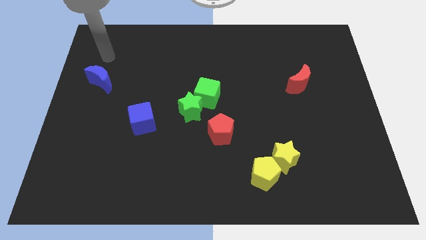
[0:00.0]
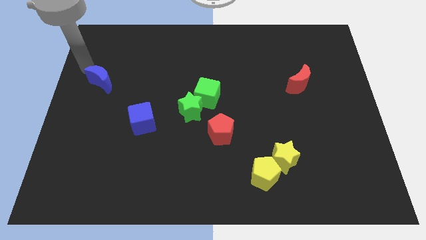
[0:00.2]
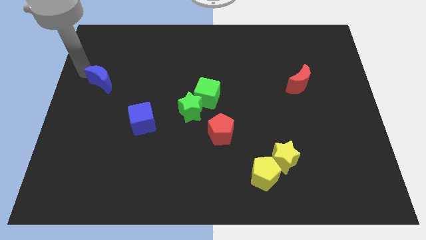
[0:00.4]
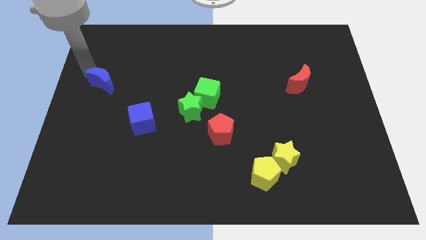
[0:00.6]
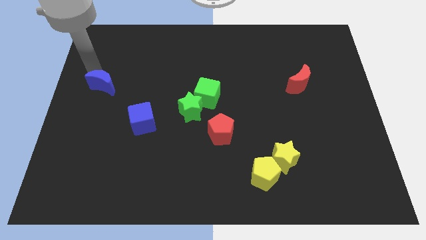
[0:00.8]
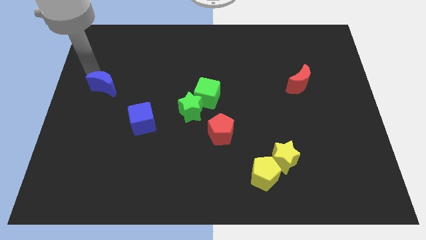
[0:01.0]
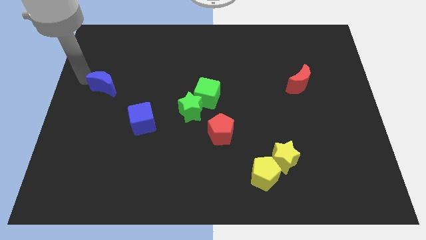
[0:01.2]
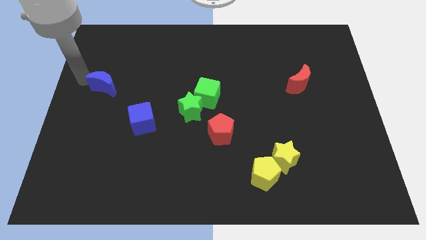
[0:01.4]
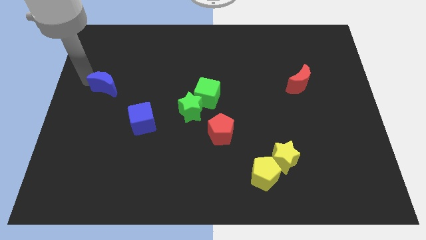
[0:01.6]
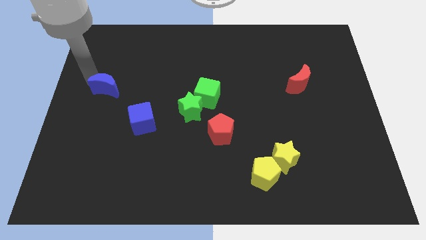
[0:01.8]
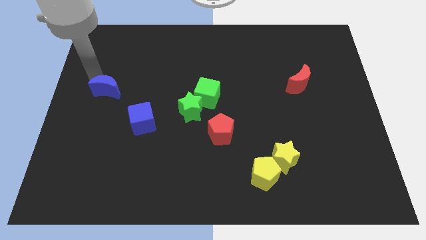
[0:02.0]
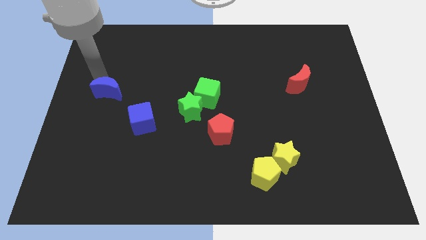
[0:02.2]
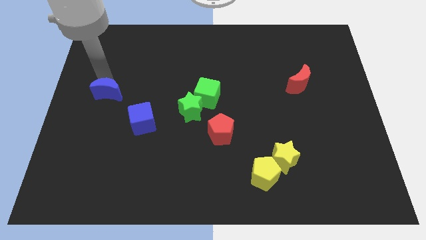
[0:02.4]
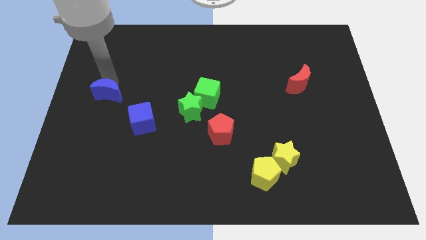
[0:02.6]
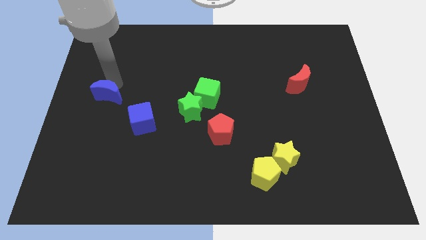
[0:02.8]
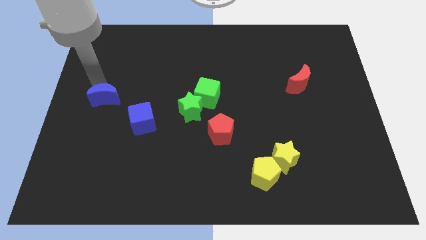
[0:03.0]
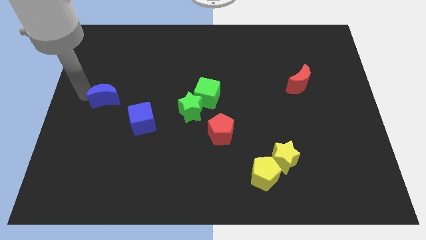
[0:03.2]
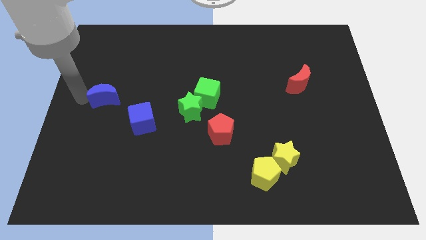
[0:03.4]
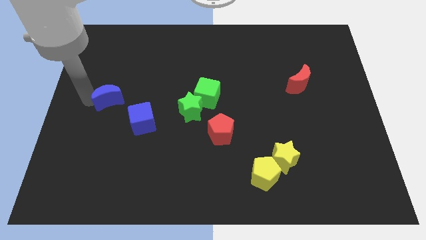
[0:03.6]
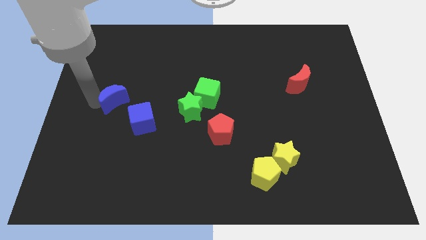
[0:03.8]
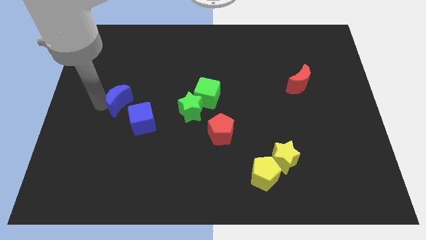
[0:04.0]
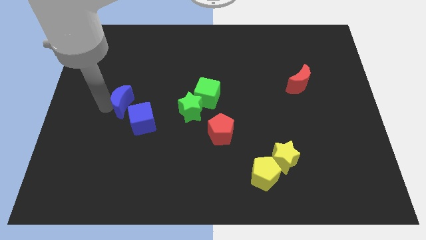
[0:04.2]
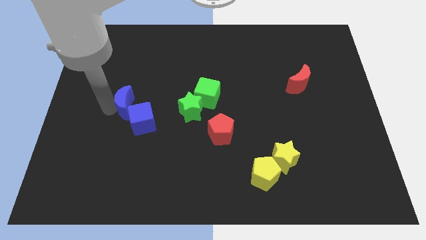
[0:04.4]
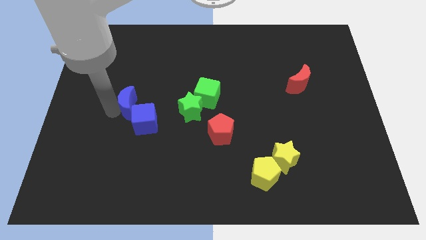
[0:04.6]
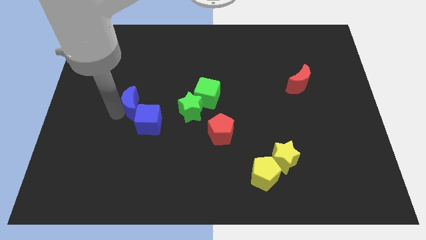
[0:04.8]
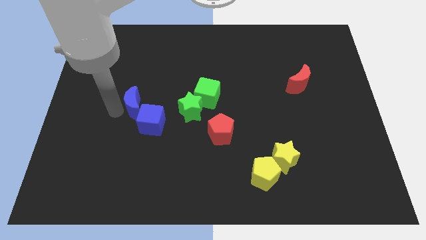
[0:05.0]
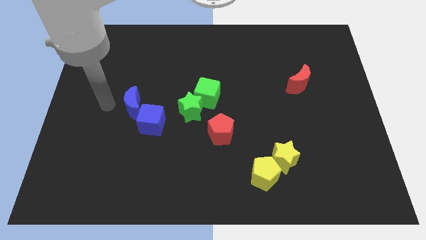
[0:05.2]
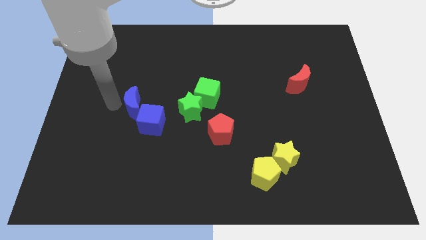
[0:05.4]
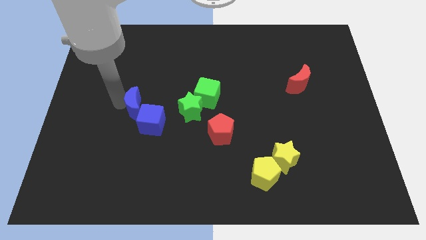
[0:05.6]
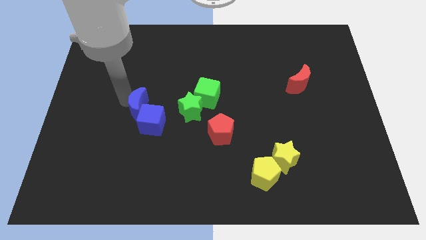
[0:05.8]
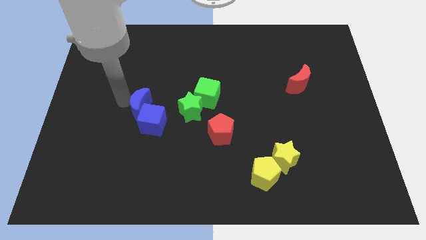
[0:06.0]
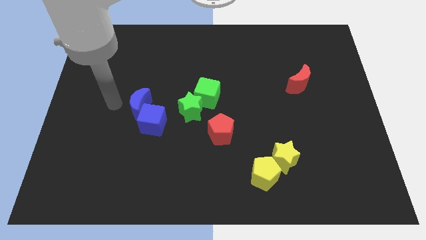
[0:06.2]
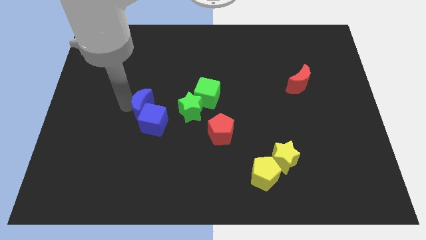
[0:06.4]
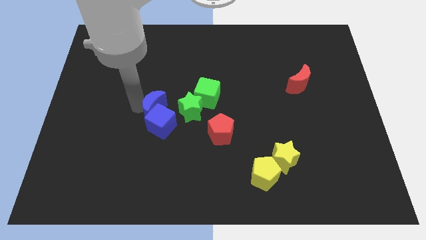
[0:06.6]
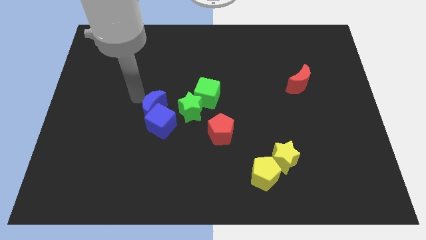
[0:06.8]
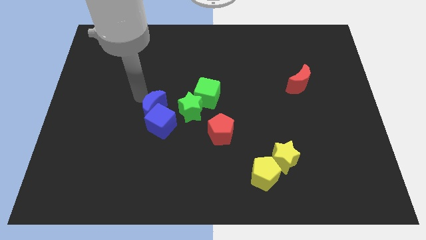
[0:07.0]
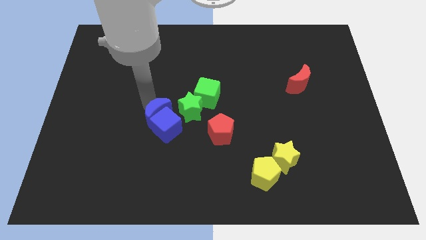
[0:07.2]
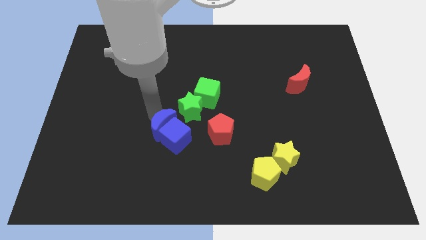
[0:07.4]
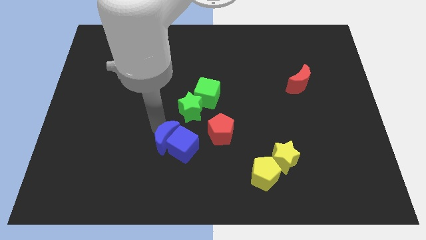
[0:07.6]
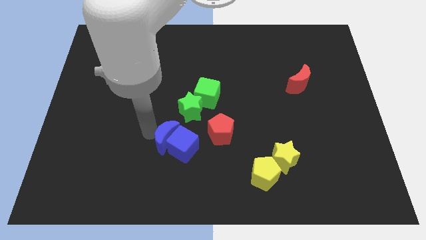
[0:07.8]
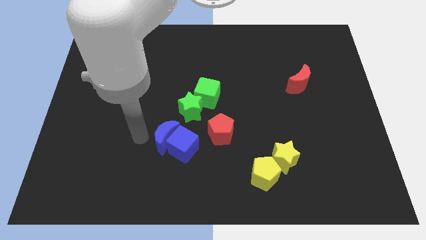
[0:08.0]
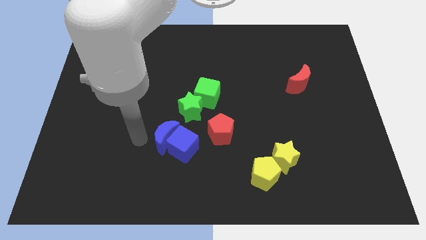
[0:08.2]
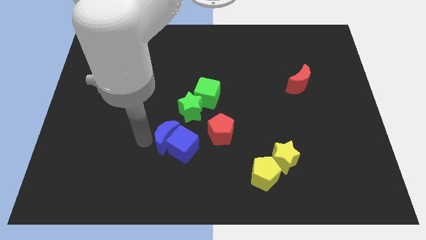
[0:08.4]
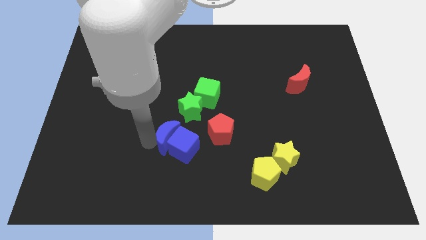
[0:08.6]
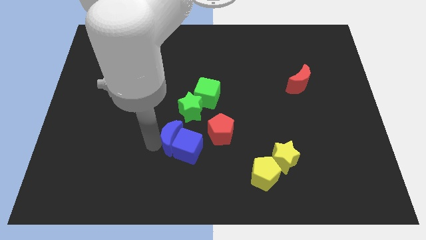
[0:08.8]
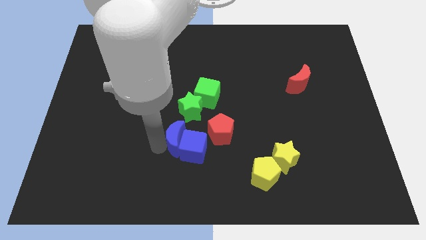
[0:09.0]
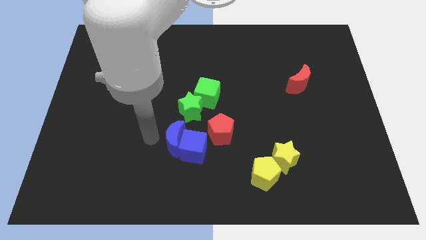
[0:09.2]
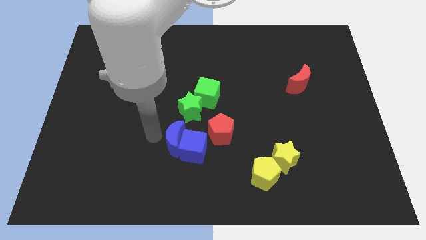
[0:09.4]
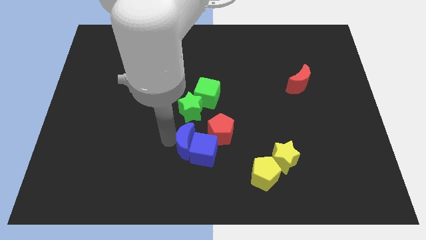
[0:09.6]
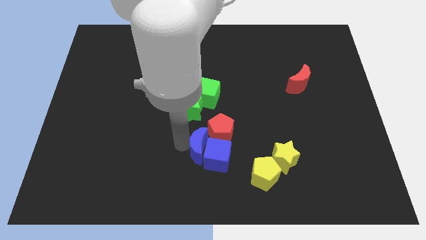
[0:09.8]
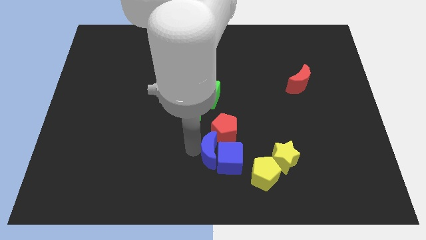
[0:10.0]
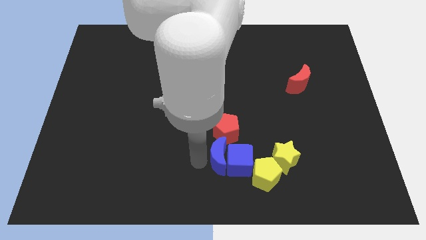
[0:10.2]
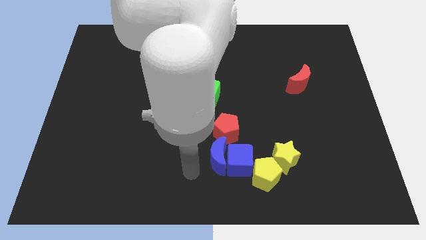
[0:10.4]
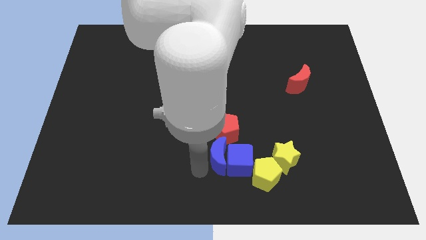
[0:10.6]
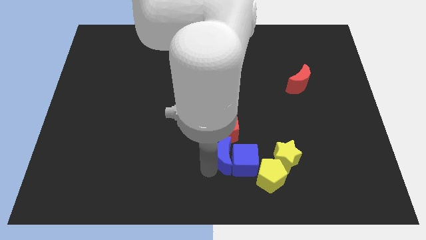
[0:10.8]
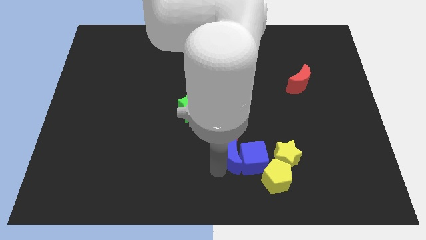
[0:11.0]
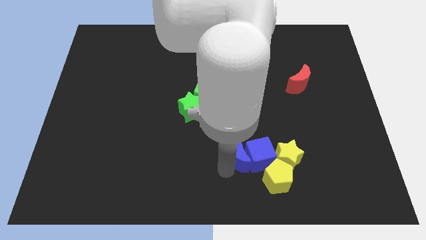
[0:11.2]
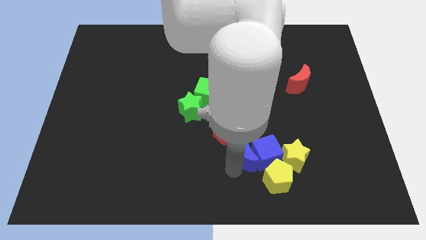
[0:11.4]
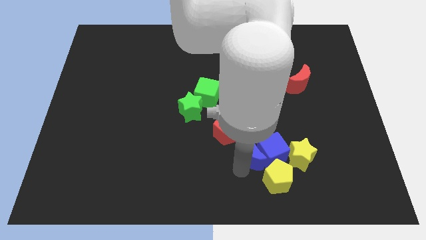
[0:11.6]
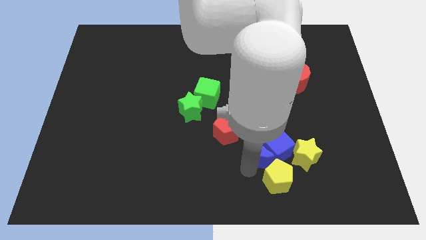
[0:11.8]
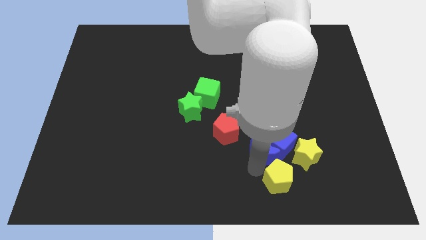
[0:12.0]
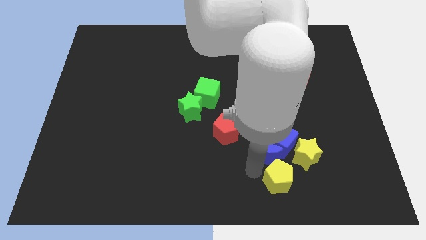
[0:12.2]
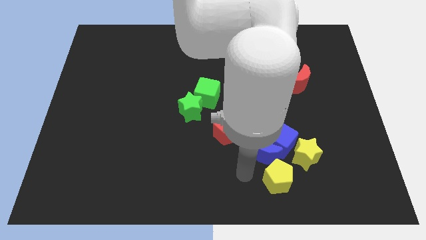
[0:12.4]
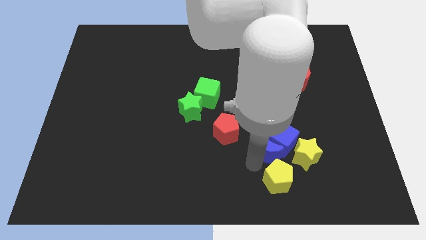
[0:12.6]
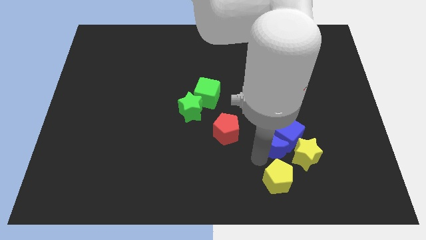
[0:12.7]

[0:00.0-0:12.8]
put the blue moon to the top left side of the yellow star
